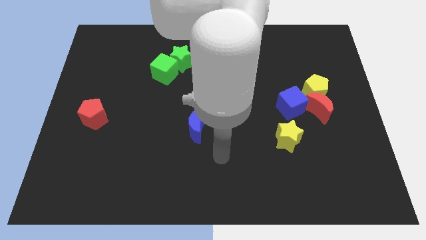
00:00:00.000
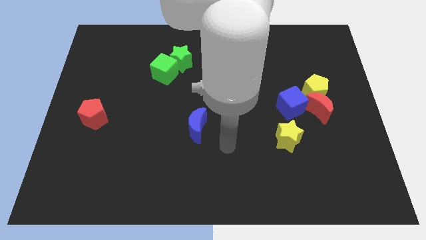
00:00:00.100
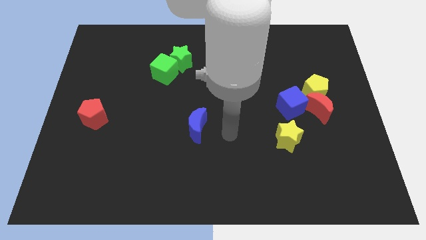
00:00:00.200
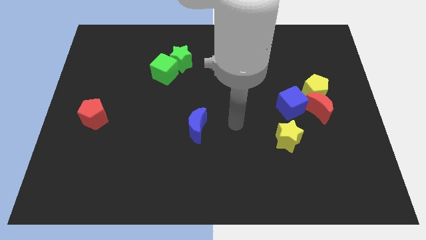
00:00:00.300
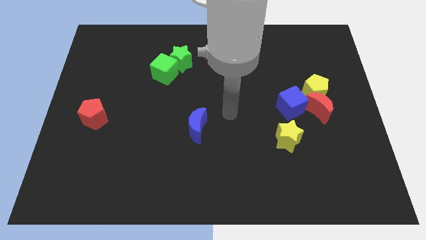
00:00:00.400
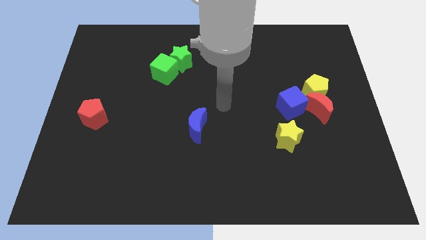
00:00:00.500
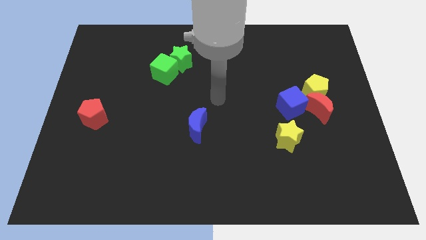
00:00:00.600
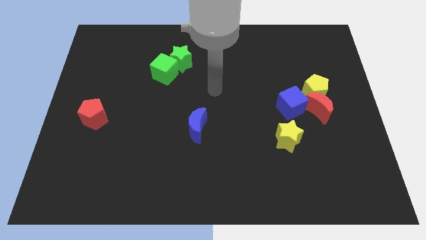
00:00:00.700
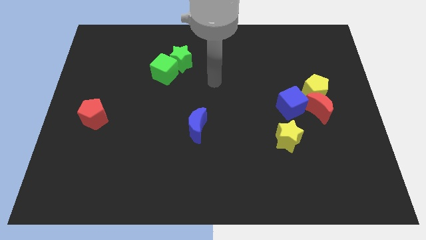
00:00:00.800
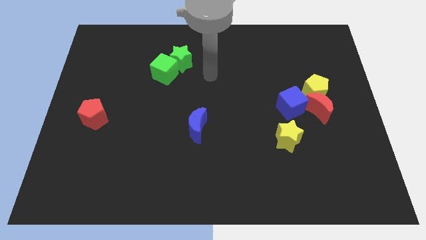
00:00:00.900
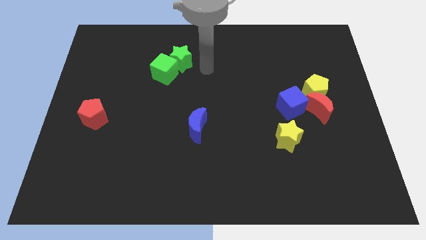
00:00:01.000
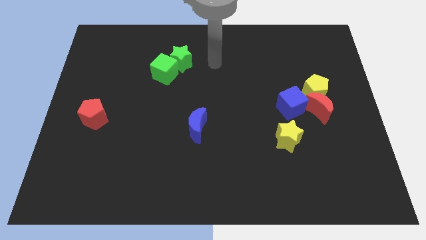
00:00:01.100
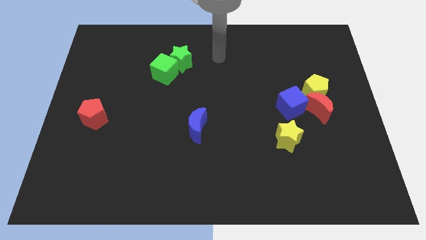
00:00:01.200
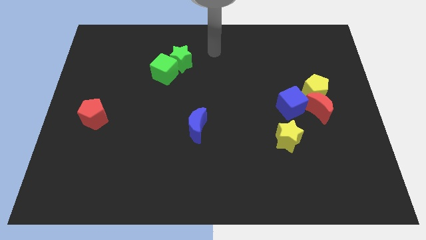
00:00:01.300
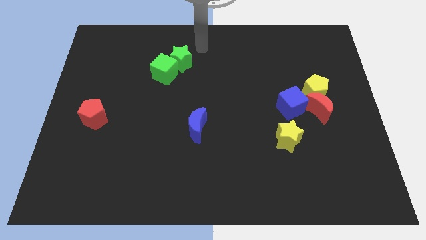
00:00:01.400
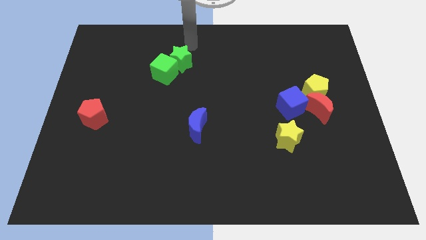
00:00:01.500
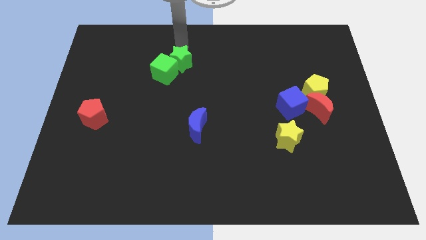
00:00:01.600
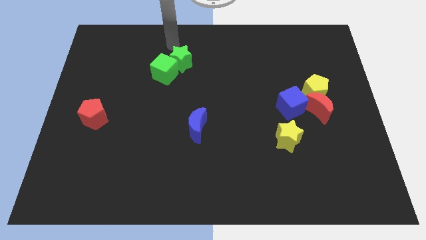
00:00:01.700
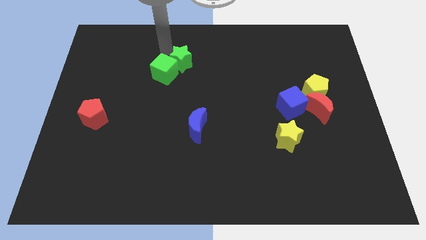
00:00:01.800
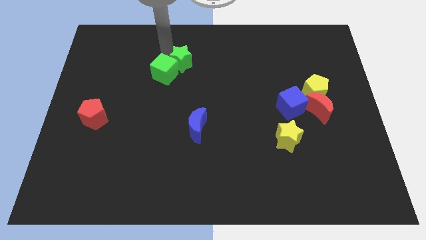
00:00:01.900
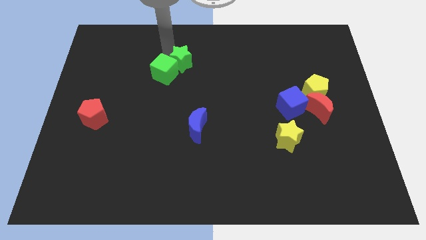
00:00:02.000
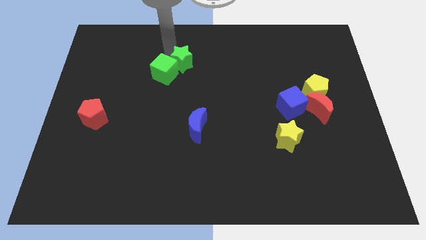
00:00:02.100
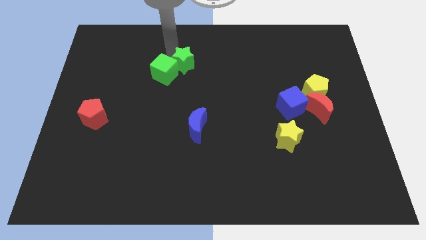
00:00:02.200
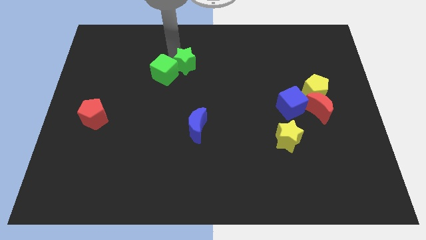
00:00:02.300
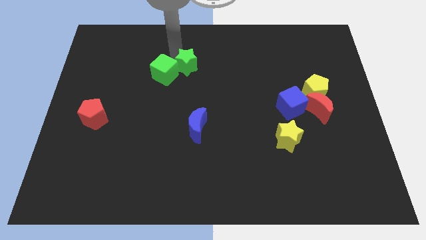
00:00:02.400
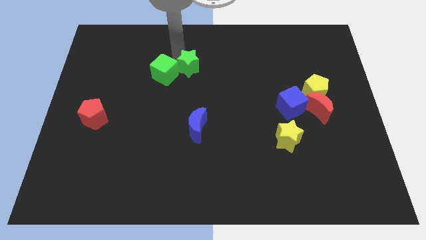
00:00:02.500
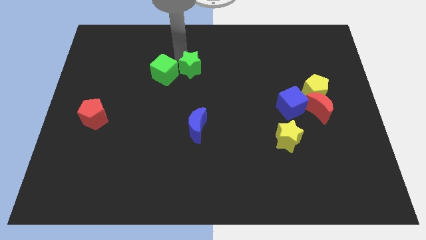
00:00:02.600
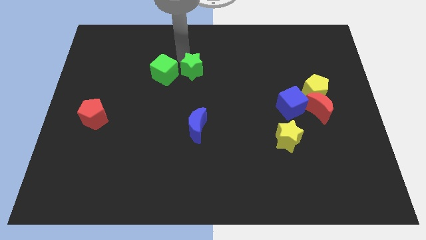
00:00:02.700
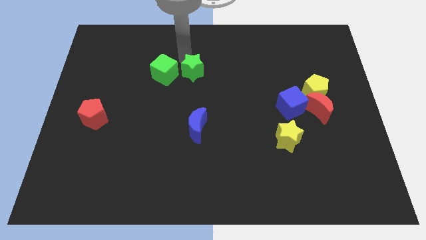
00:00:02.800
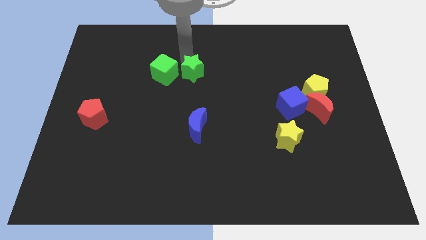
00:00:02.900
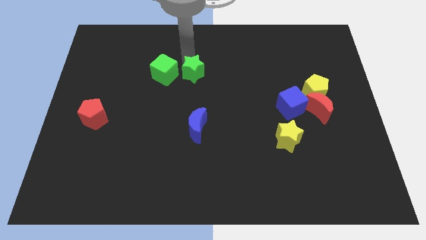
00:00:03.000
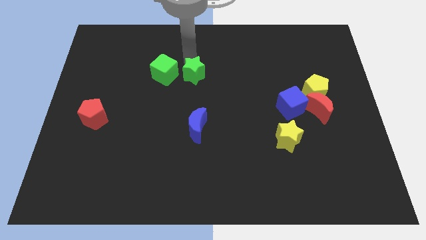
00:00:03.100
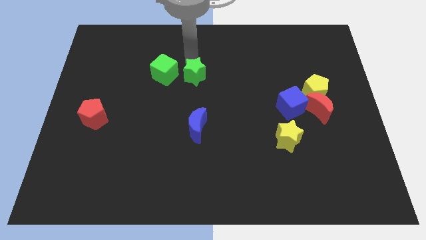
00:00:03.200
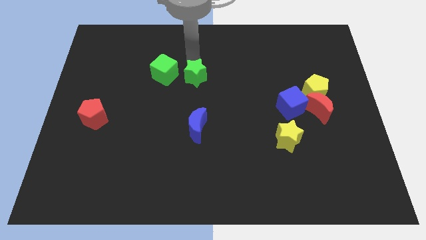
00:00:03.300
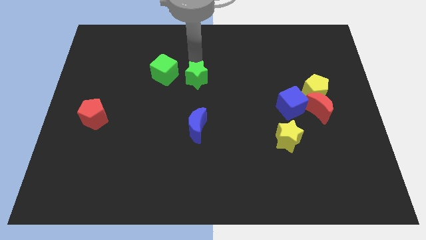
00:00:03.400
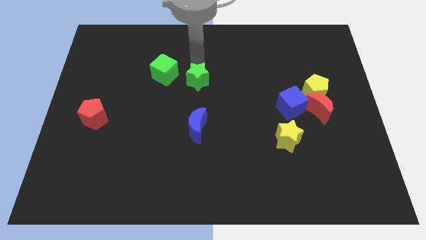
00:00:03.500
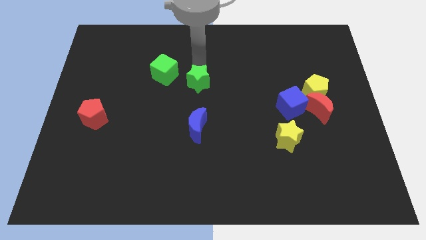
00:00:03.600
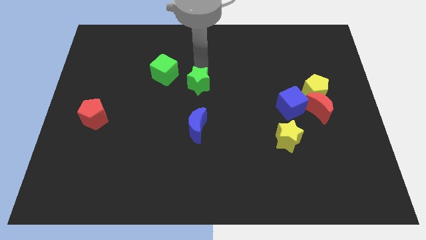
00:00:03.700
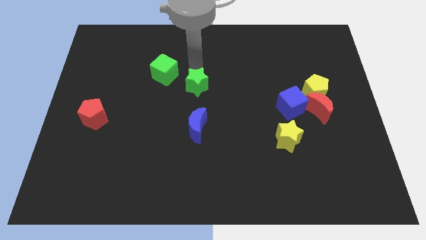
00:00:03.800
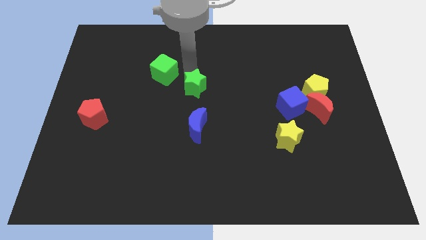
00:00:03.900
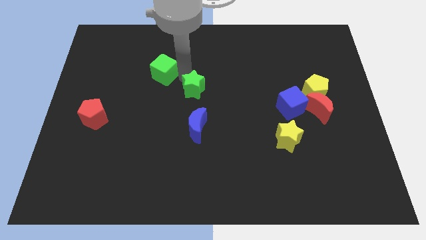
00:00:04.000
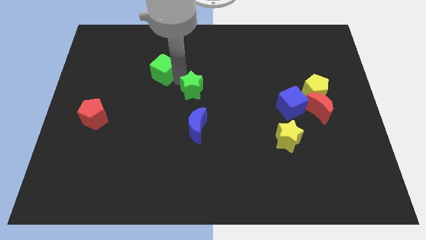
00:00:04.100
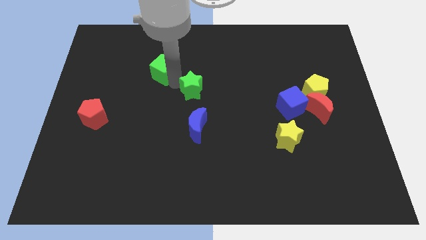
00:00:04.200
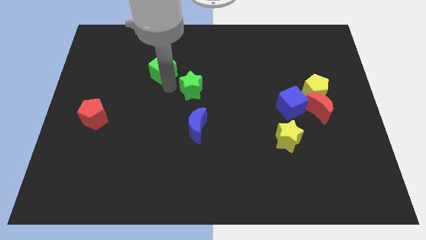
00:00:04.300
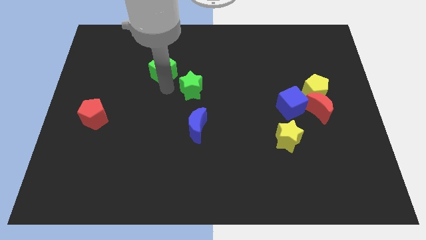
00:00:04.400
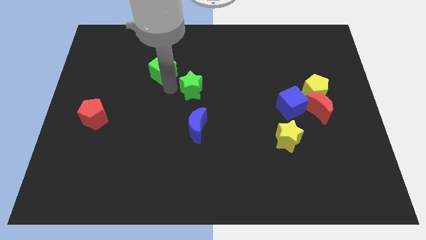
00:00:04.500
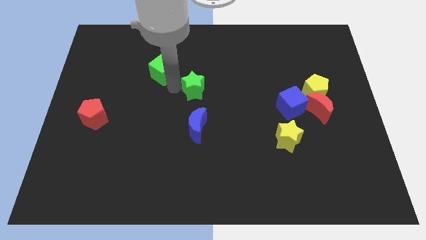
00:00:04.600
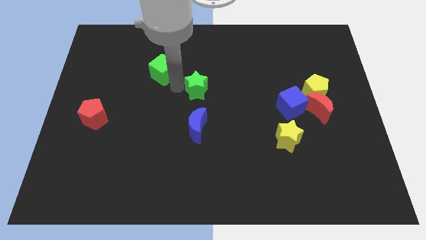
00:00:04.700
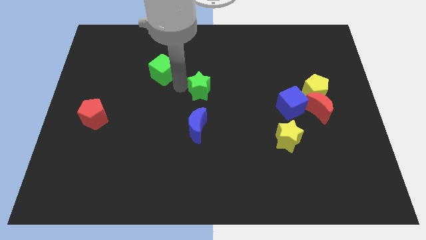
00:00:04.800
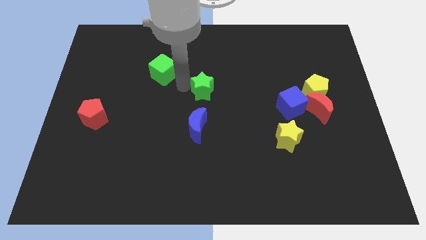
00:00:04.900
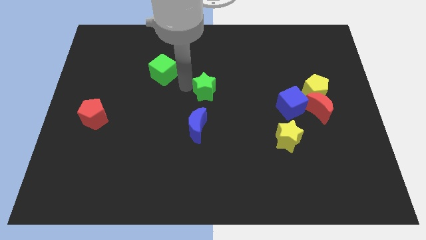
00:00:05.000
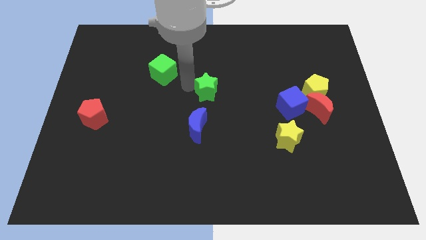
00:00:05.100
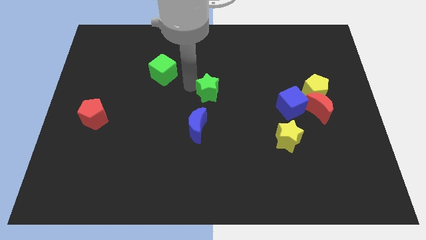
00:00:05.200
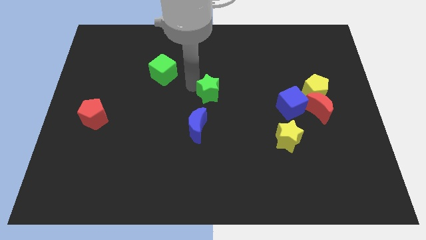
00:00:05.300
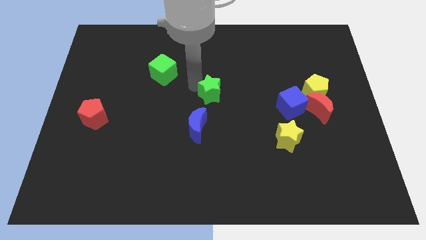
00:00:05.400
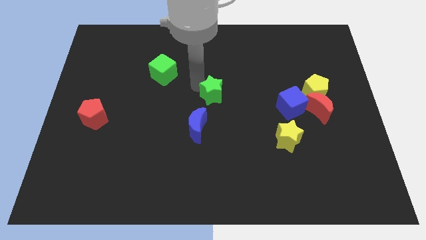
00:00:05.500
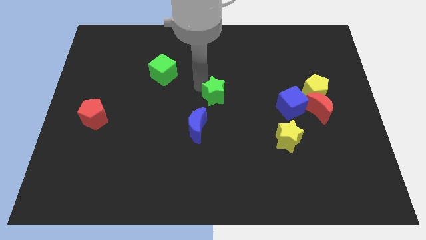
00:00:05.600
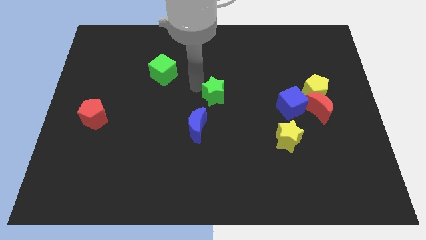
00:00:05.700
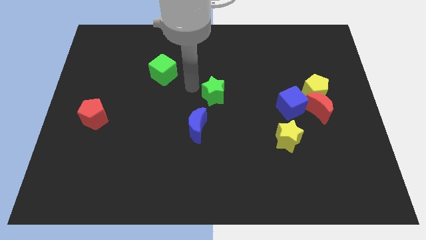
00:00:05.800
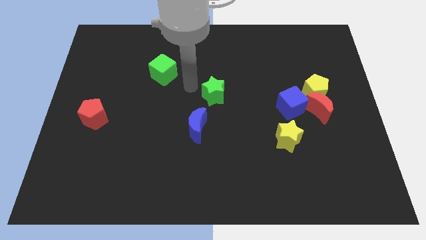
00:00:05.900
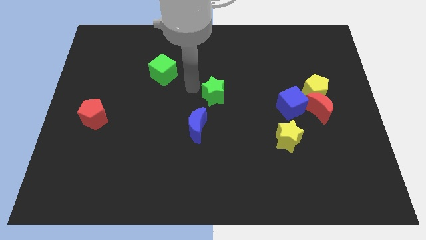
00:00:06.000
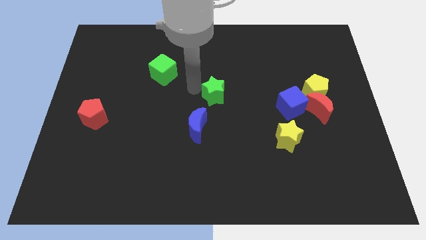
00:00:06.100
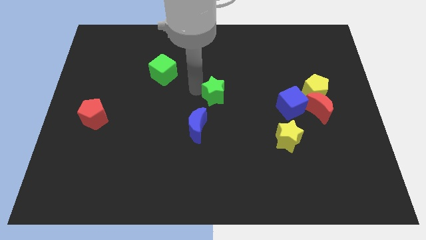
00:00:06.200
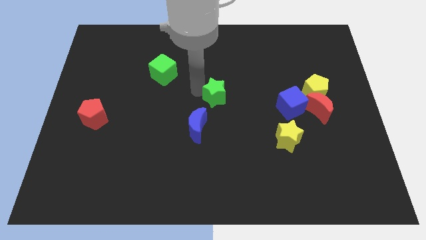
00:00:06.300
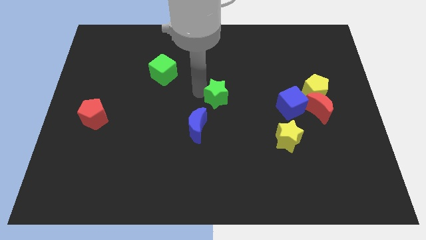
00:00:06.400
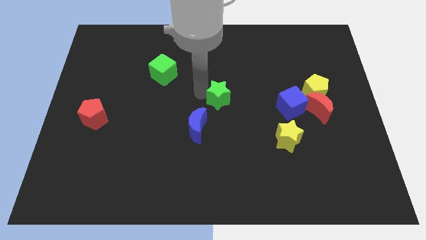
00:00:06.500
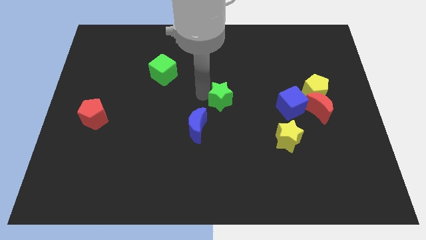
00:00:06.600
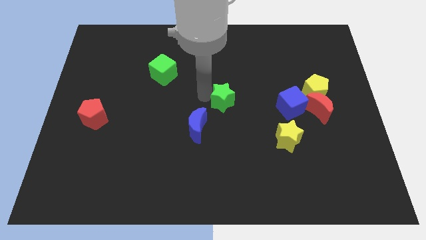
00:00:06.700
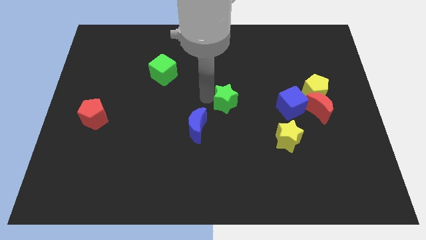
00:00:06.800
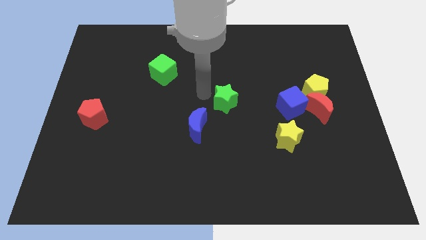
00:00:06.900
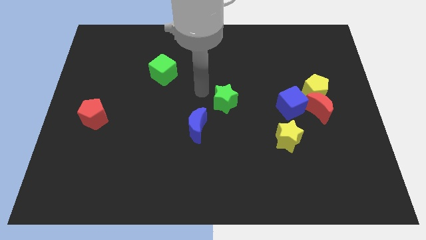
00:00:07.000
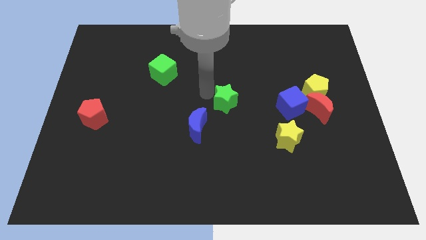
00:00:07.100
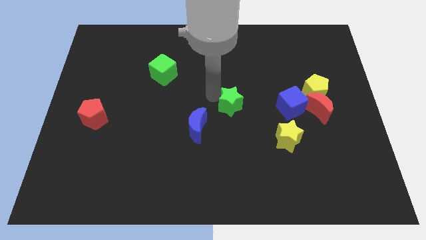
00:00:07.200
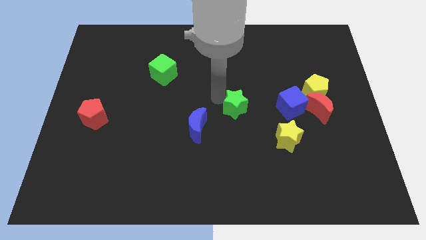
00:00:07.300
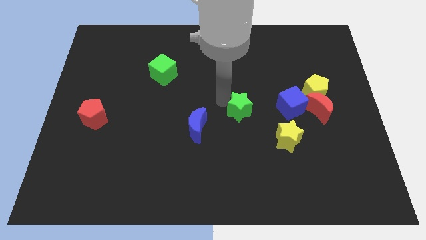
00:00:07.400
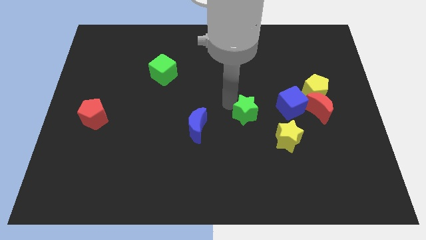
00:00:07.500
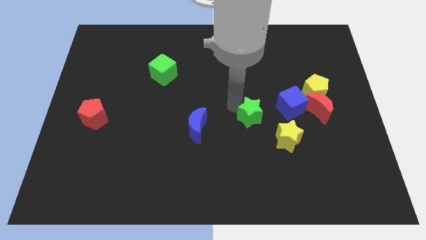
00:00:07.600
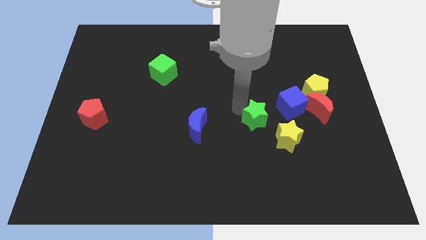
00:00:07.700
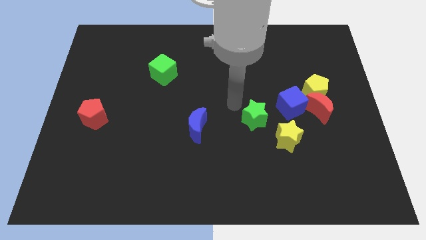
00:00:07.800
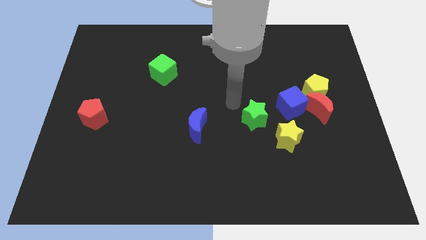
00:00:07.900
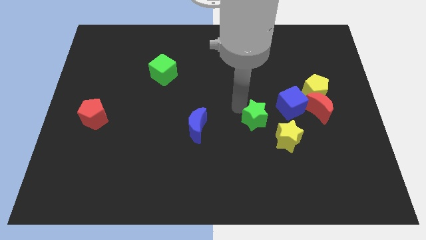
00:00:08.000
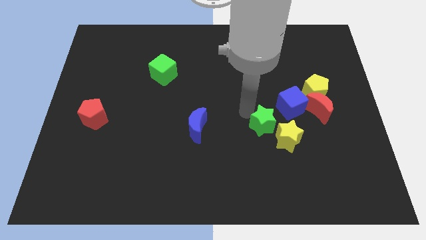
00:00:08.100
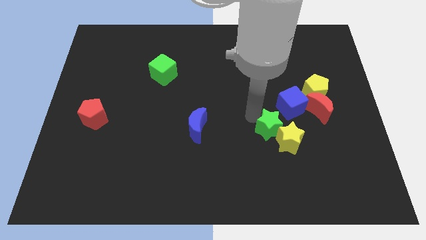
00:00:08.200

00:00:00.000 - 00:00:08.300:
slide the green star close to the yellow star
